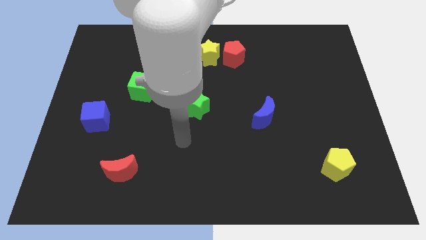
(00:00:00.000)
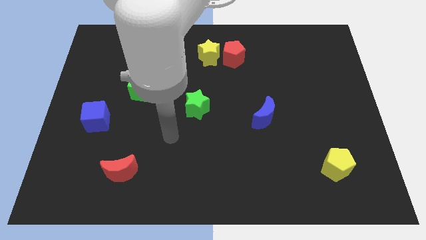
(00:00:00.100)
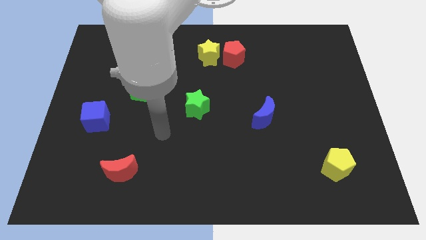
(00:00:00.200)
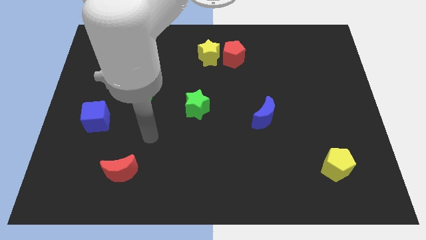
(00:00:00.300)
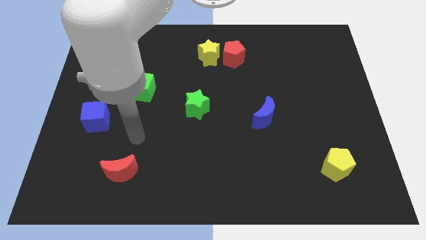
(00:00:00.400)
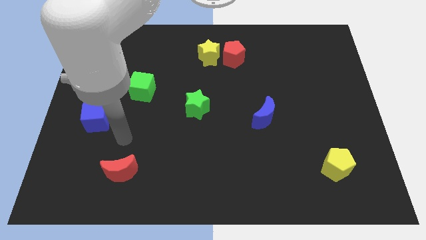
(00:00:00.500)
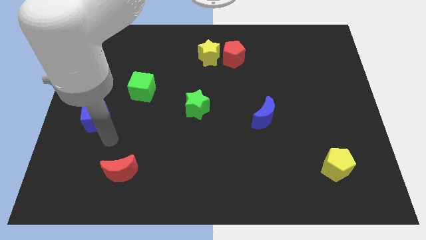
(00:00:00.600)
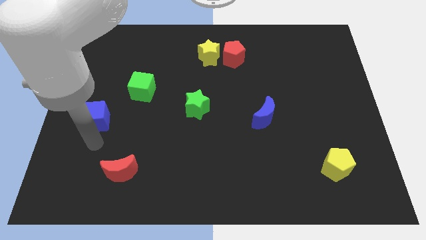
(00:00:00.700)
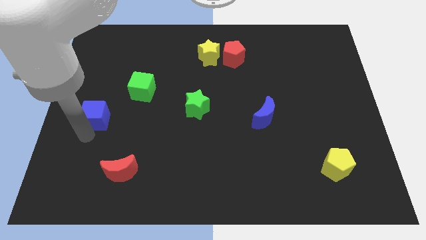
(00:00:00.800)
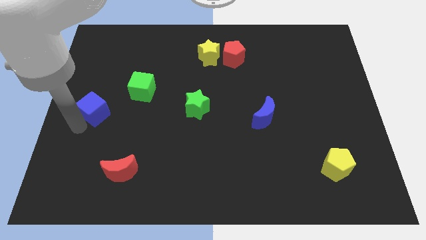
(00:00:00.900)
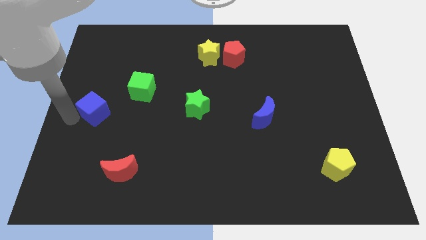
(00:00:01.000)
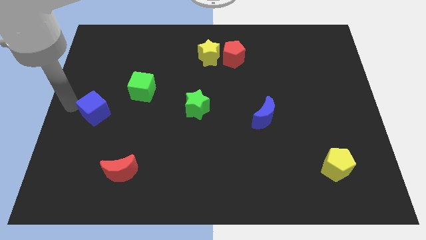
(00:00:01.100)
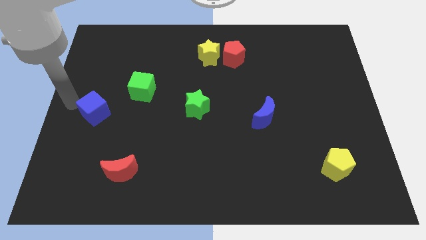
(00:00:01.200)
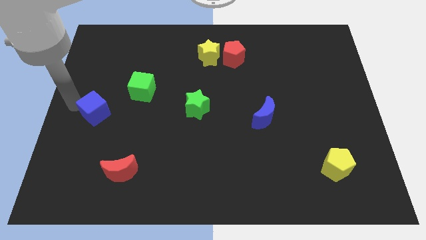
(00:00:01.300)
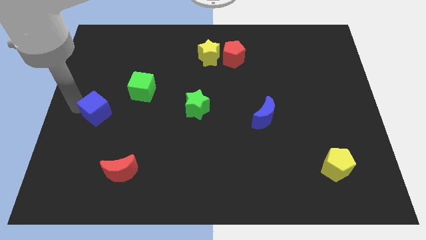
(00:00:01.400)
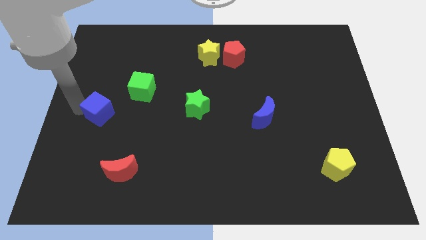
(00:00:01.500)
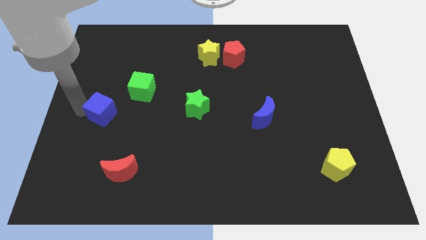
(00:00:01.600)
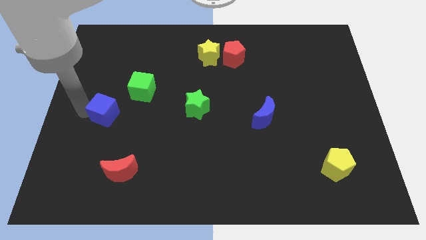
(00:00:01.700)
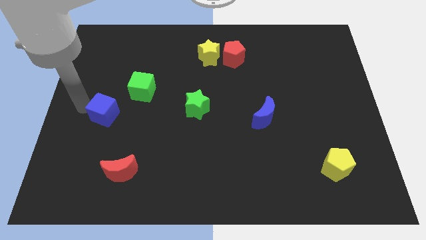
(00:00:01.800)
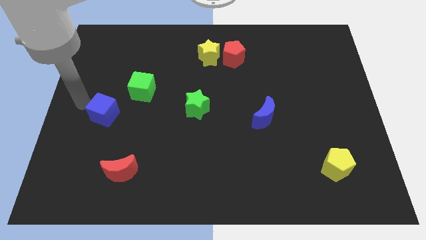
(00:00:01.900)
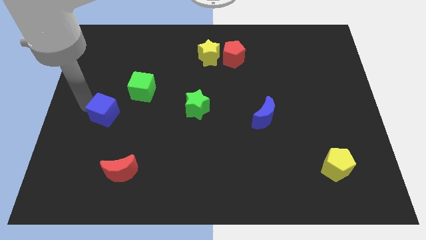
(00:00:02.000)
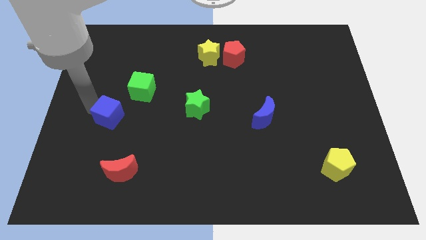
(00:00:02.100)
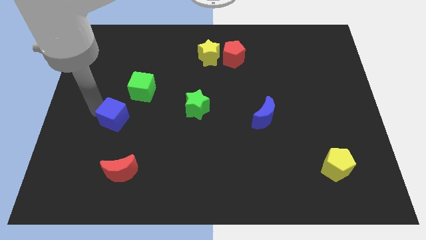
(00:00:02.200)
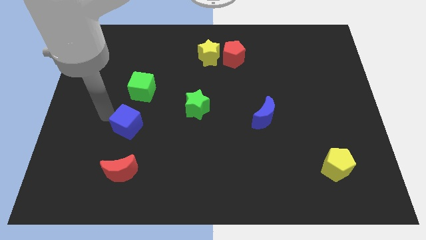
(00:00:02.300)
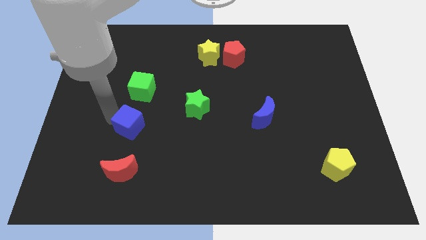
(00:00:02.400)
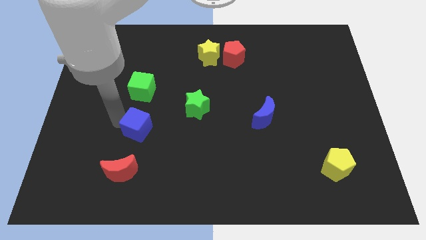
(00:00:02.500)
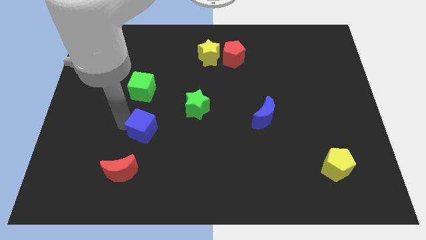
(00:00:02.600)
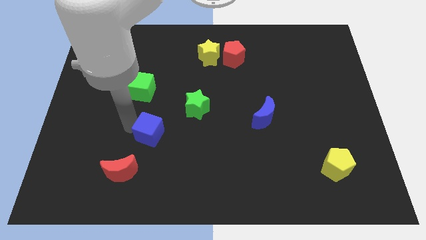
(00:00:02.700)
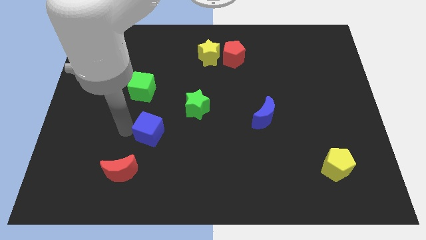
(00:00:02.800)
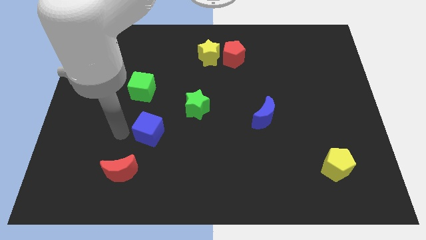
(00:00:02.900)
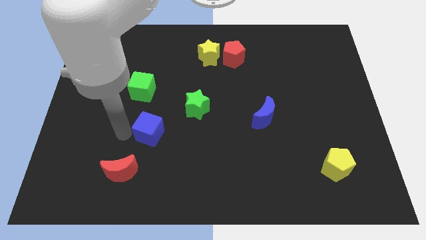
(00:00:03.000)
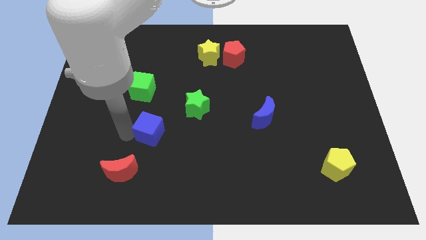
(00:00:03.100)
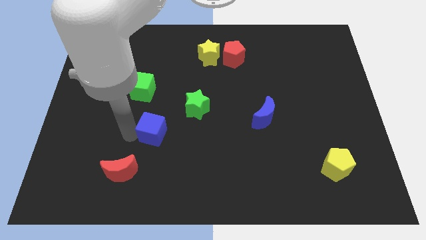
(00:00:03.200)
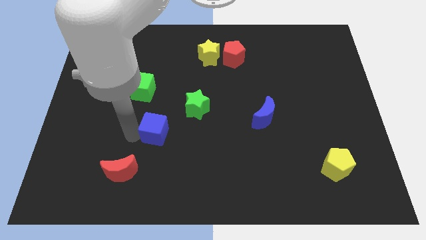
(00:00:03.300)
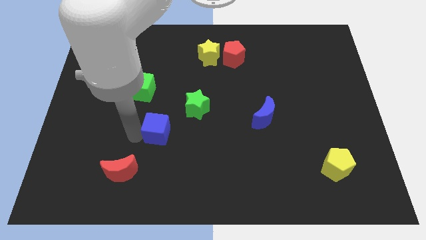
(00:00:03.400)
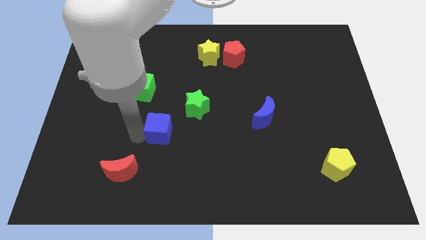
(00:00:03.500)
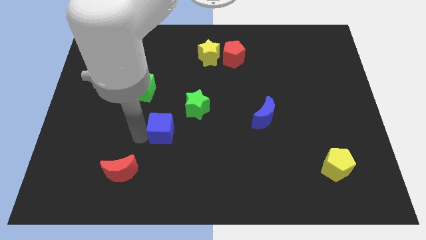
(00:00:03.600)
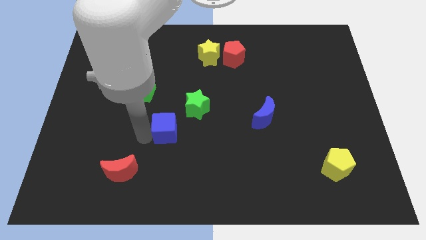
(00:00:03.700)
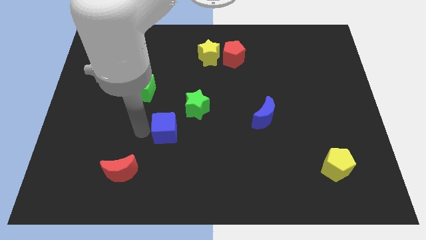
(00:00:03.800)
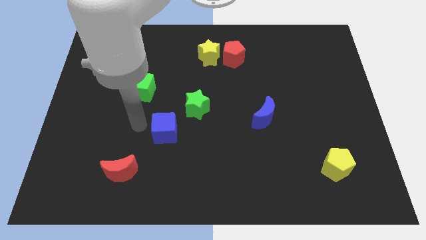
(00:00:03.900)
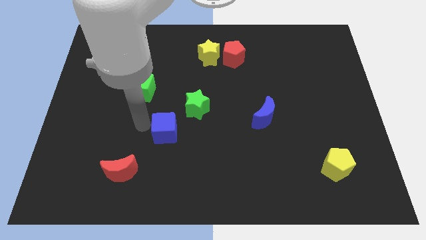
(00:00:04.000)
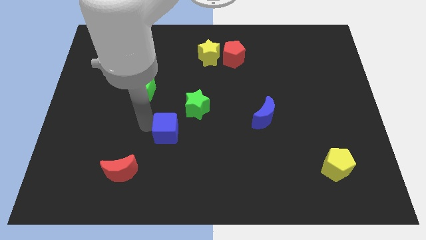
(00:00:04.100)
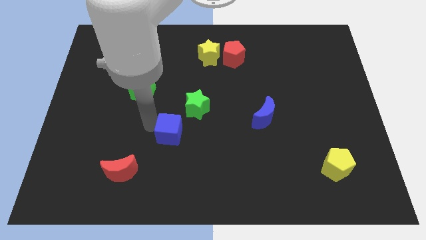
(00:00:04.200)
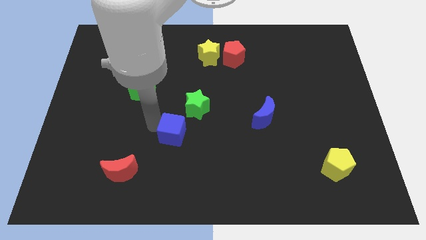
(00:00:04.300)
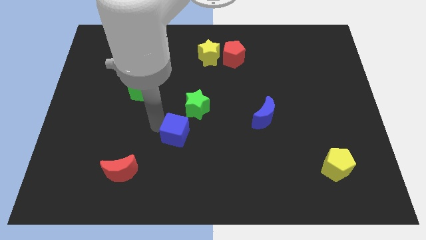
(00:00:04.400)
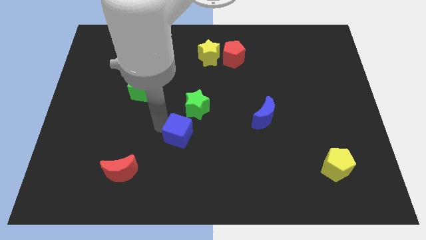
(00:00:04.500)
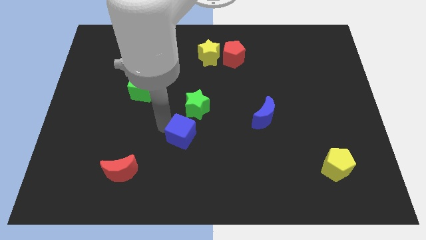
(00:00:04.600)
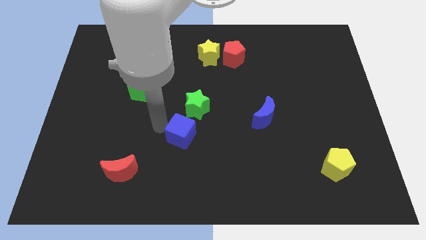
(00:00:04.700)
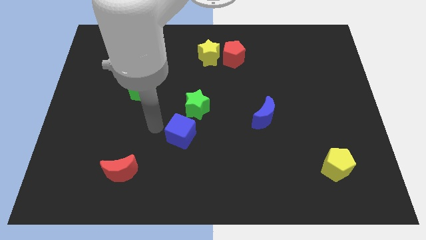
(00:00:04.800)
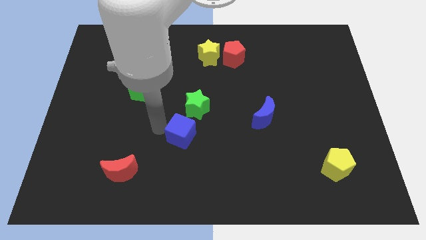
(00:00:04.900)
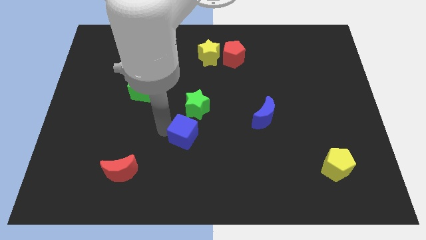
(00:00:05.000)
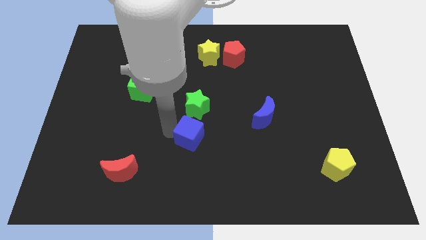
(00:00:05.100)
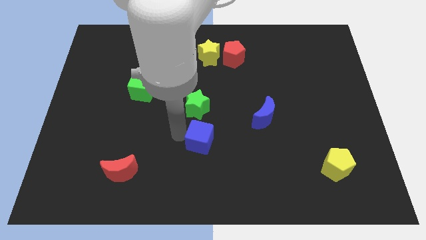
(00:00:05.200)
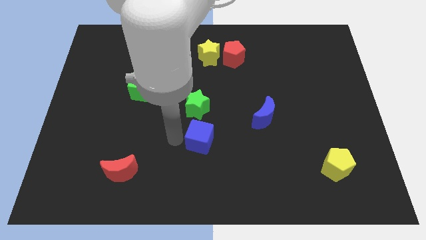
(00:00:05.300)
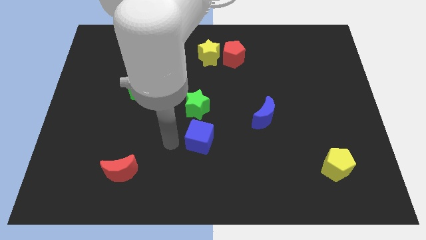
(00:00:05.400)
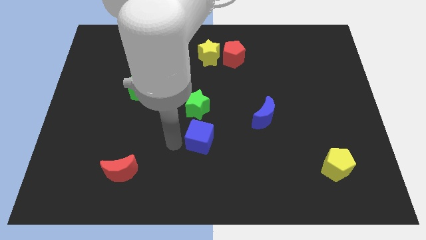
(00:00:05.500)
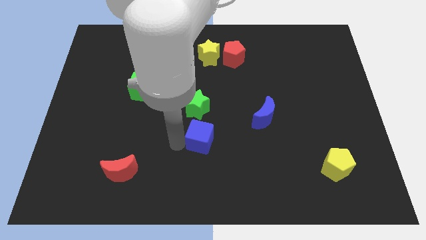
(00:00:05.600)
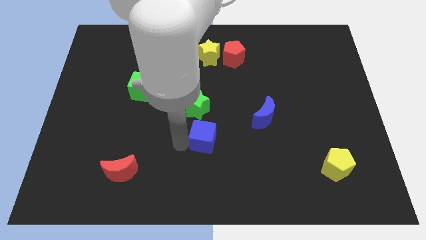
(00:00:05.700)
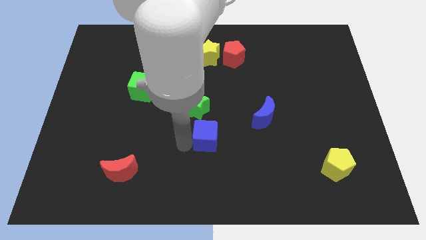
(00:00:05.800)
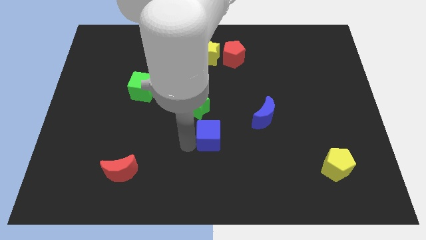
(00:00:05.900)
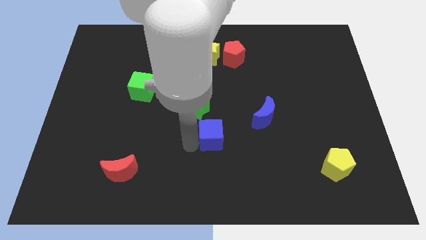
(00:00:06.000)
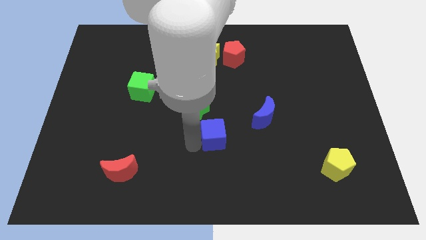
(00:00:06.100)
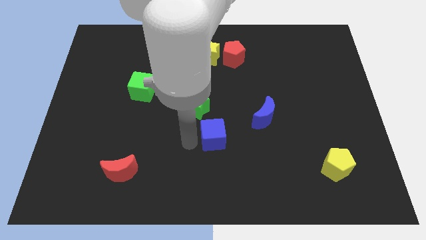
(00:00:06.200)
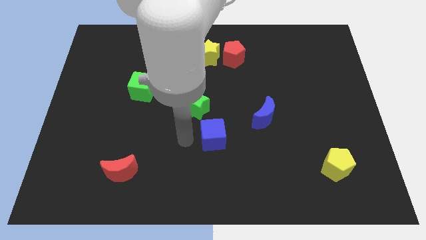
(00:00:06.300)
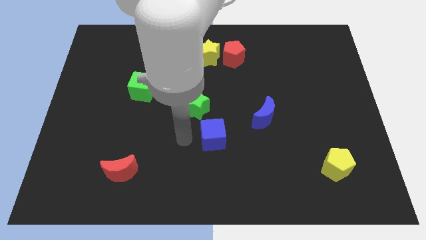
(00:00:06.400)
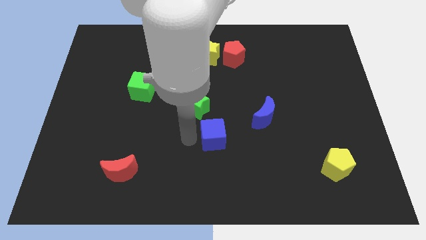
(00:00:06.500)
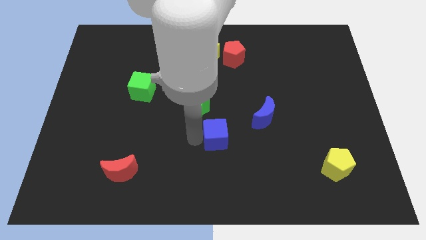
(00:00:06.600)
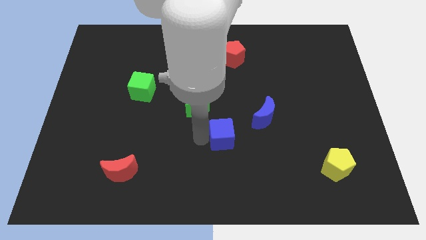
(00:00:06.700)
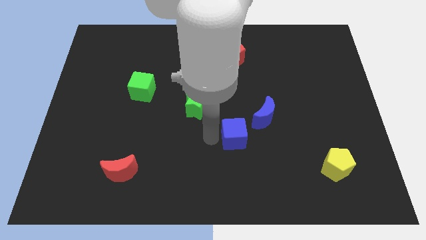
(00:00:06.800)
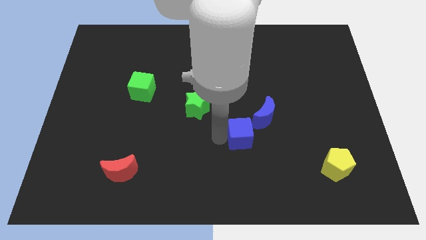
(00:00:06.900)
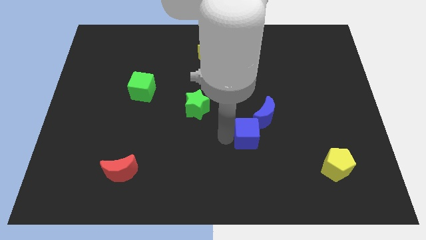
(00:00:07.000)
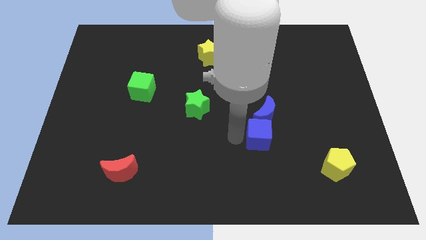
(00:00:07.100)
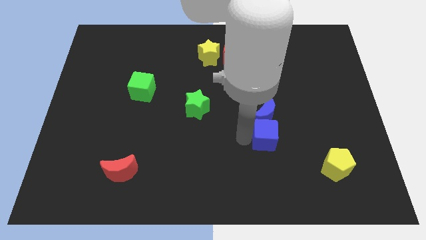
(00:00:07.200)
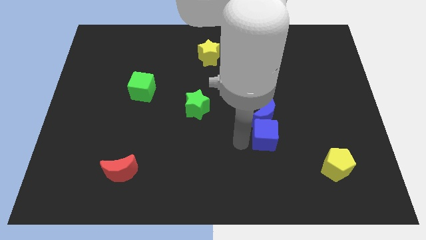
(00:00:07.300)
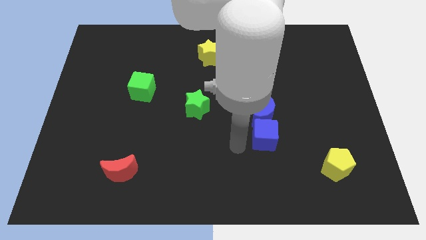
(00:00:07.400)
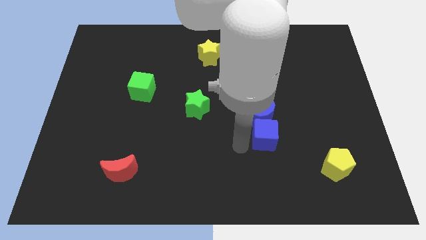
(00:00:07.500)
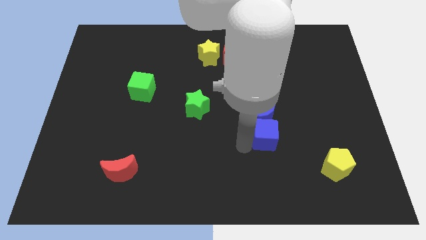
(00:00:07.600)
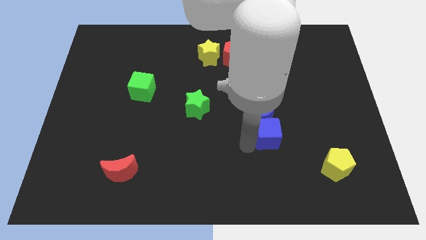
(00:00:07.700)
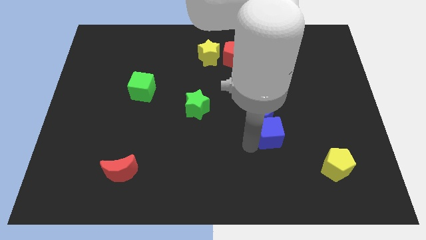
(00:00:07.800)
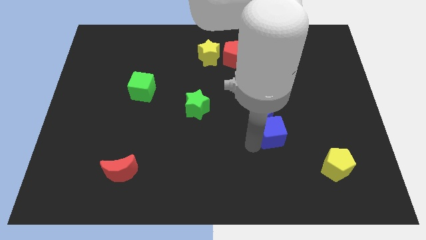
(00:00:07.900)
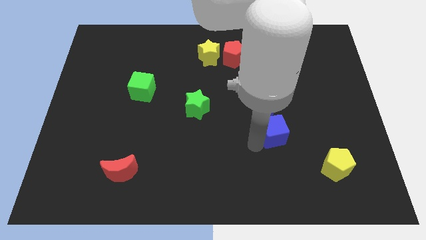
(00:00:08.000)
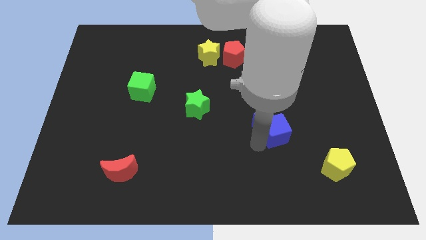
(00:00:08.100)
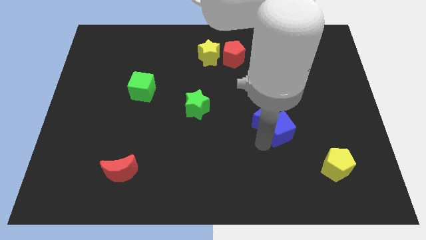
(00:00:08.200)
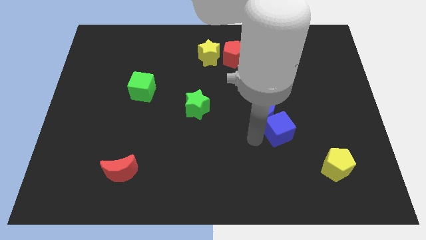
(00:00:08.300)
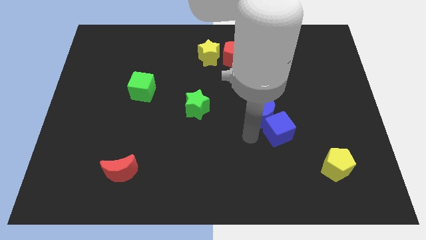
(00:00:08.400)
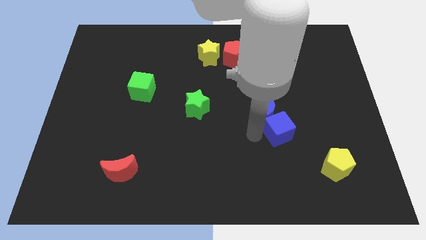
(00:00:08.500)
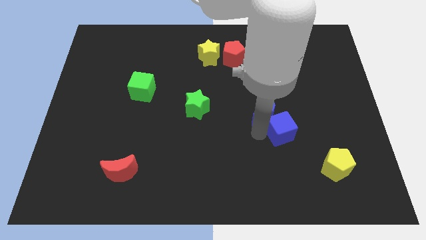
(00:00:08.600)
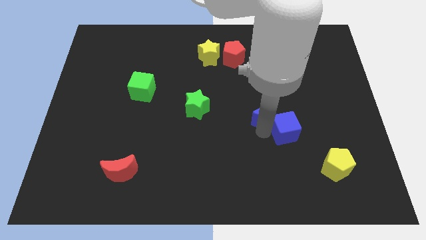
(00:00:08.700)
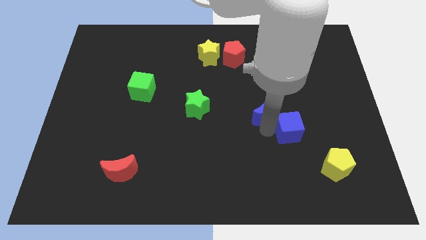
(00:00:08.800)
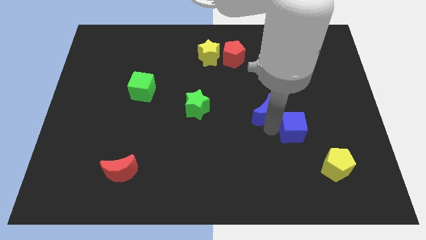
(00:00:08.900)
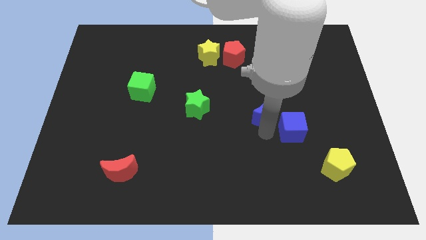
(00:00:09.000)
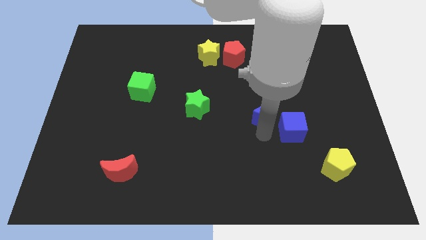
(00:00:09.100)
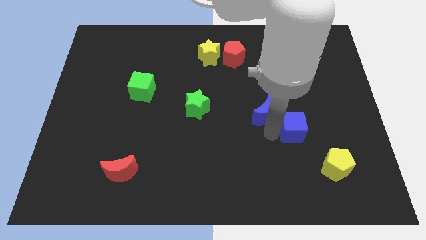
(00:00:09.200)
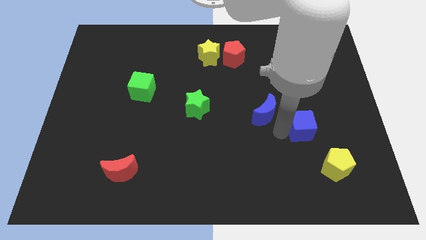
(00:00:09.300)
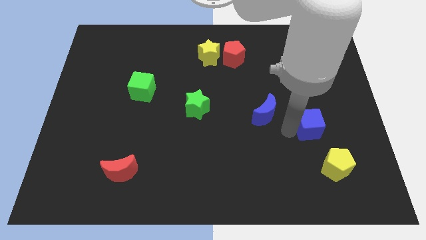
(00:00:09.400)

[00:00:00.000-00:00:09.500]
push the blue cube above the yellow pentagon
